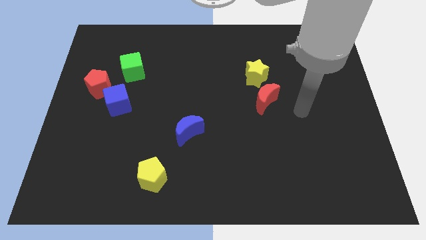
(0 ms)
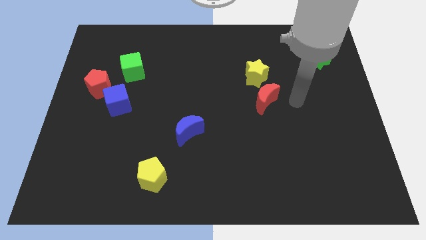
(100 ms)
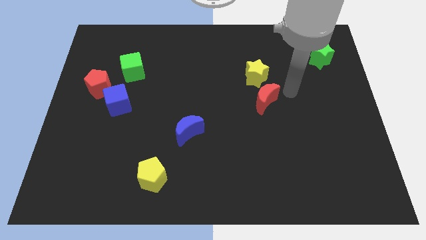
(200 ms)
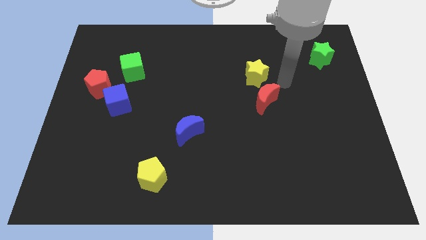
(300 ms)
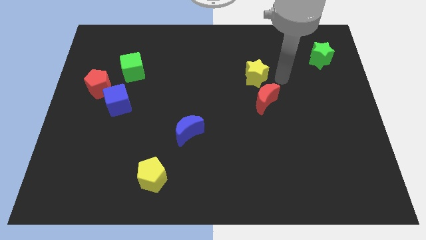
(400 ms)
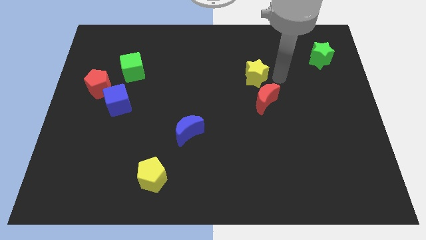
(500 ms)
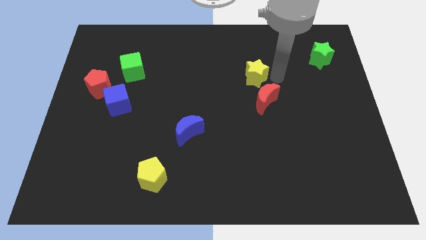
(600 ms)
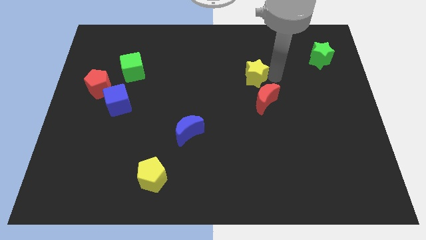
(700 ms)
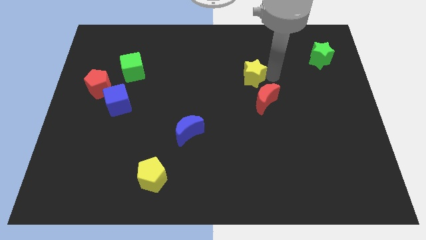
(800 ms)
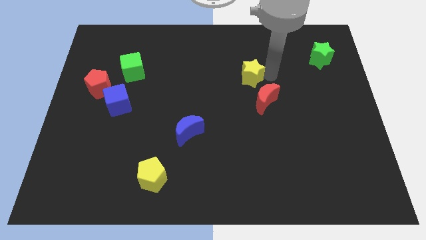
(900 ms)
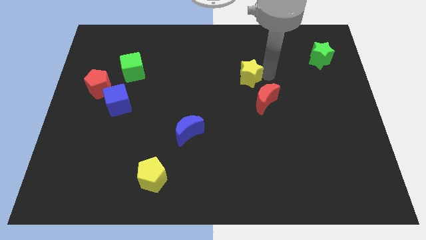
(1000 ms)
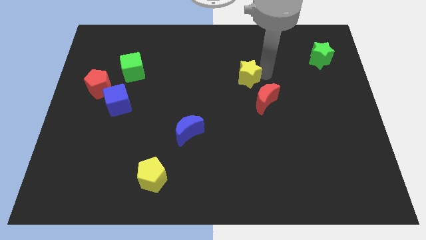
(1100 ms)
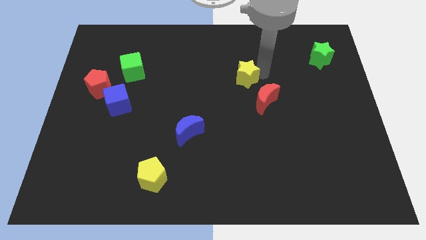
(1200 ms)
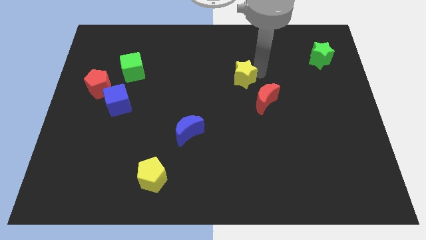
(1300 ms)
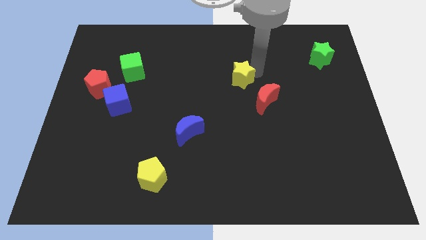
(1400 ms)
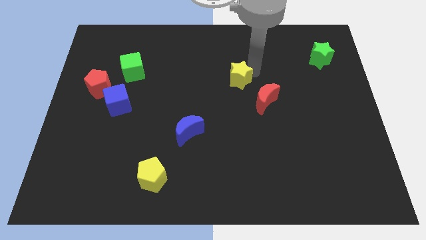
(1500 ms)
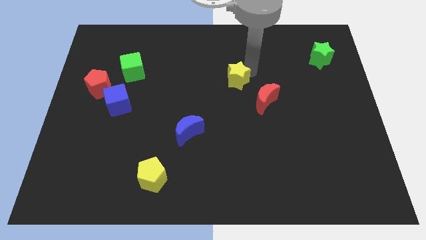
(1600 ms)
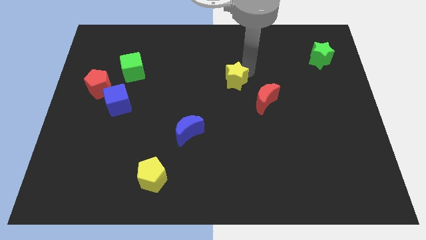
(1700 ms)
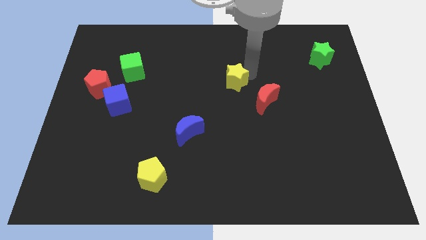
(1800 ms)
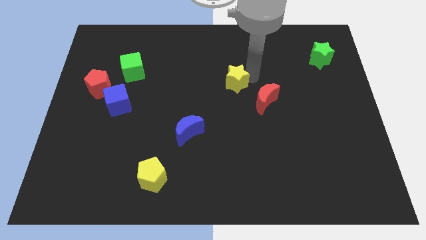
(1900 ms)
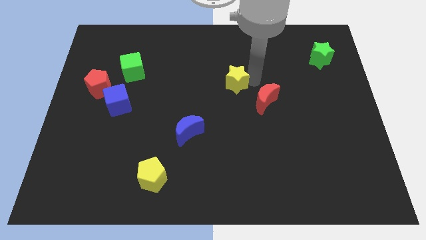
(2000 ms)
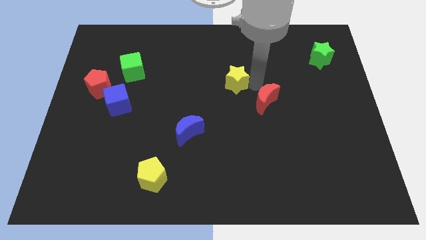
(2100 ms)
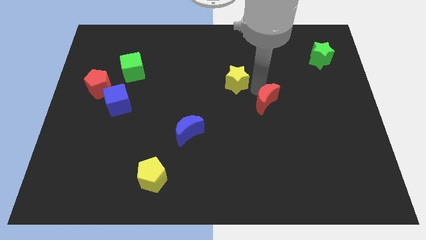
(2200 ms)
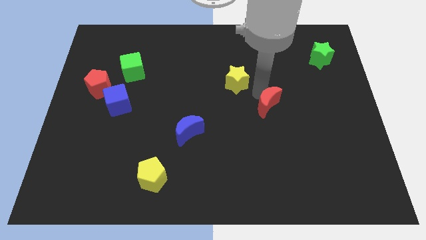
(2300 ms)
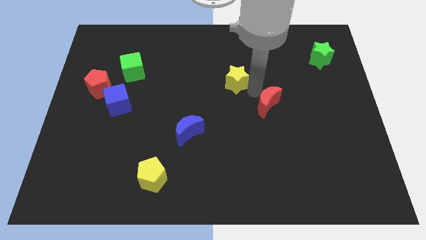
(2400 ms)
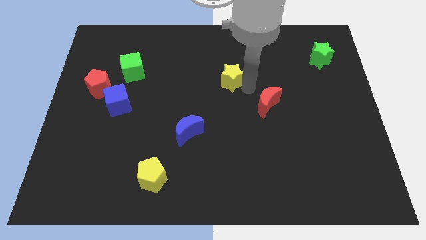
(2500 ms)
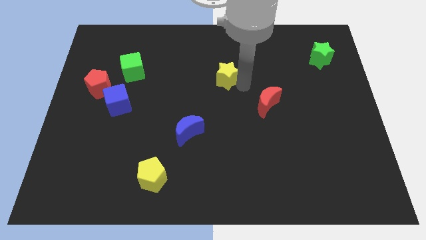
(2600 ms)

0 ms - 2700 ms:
slide the yellow star a little bit to the left

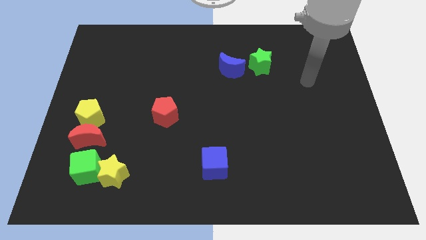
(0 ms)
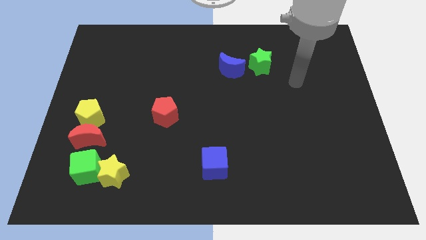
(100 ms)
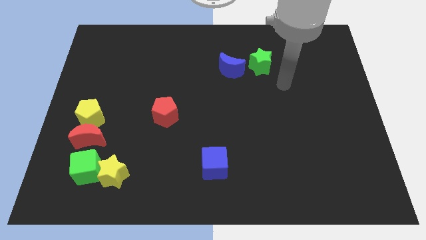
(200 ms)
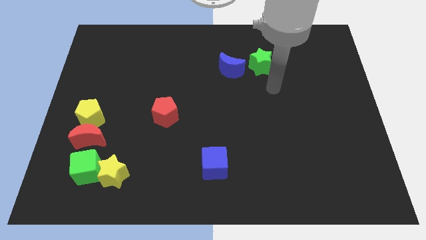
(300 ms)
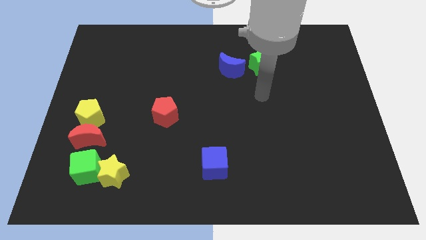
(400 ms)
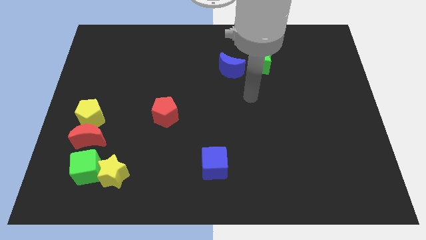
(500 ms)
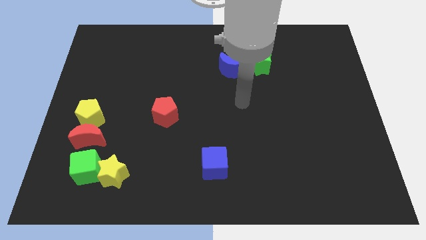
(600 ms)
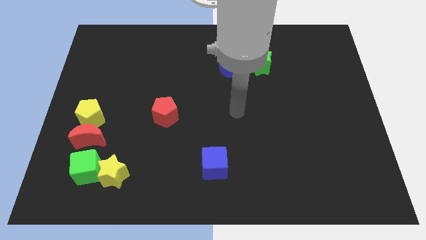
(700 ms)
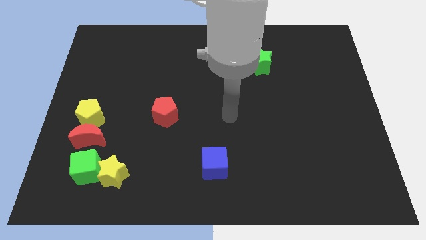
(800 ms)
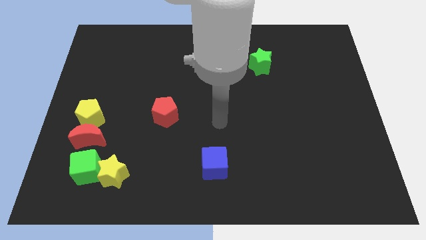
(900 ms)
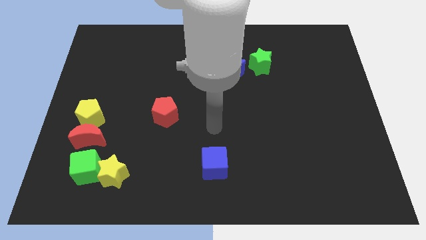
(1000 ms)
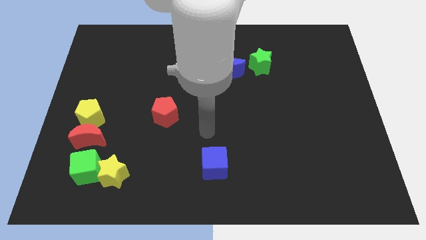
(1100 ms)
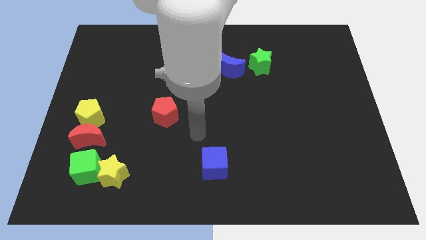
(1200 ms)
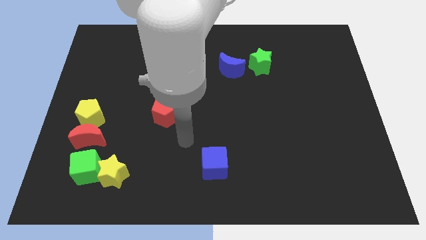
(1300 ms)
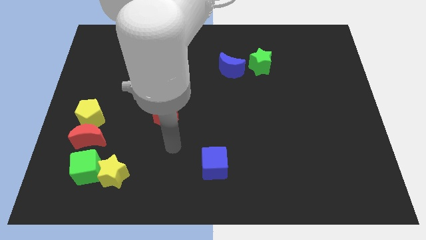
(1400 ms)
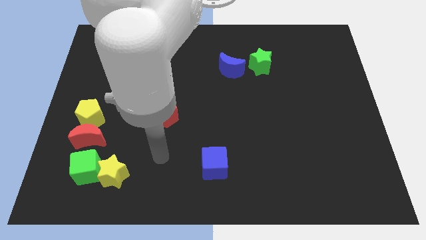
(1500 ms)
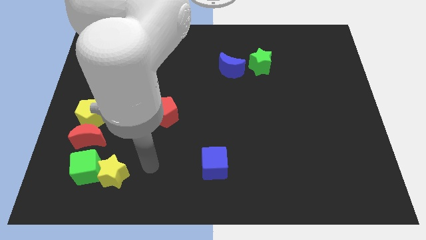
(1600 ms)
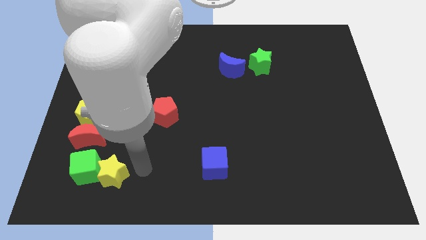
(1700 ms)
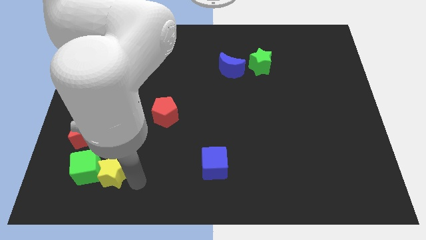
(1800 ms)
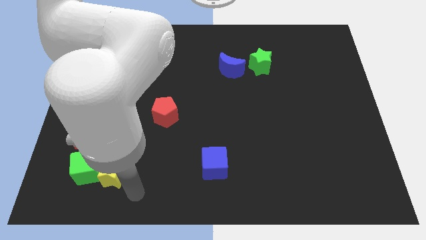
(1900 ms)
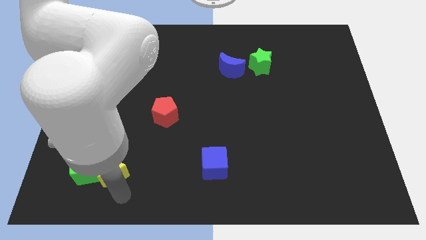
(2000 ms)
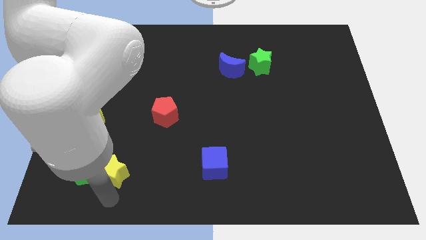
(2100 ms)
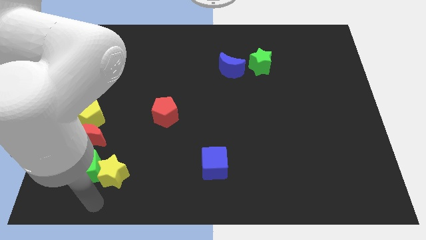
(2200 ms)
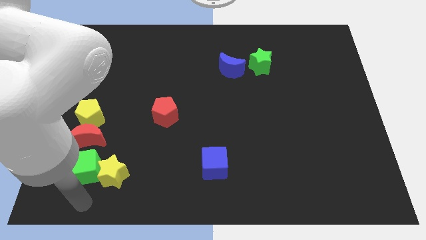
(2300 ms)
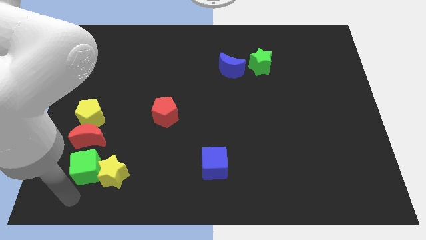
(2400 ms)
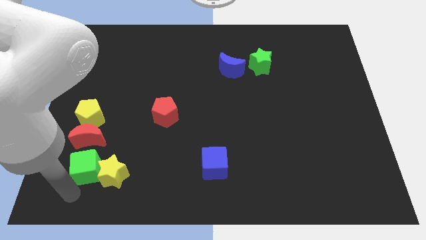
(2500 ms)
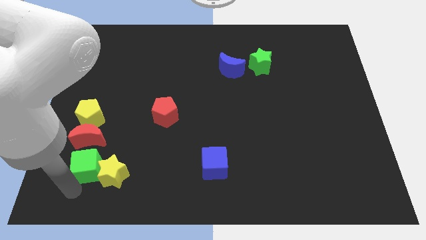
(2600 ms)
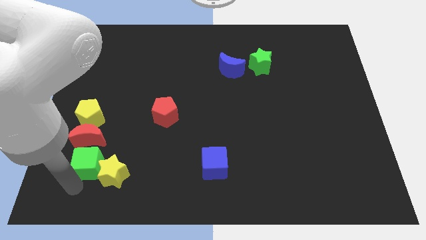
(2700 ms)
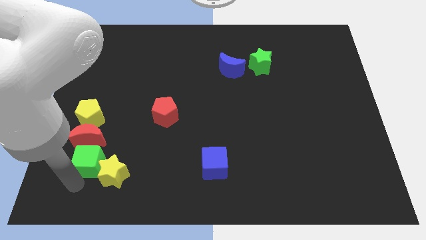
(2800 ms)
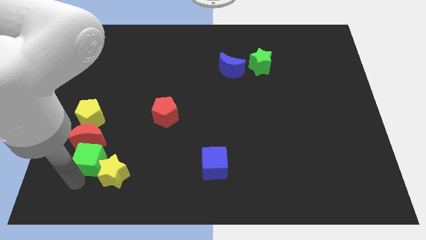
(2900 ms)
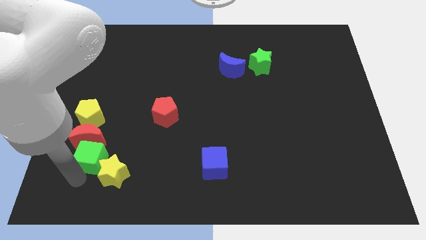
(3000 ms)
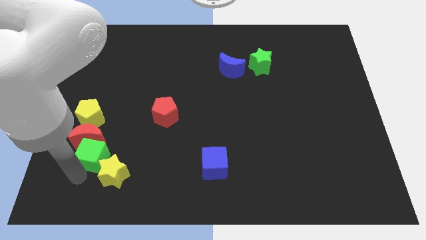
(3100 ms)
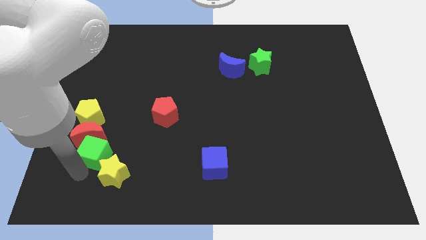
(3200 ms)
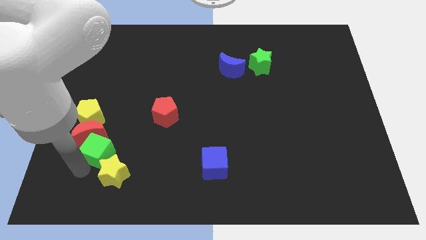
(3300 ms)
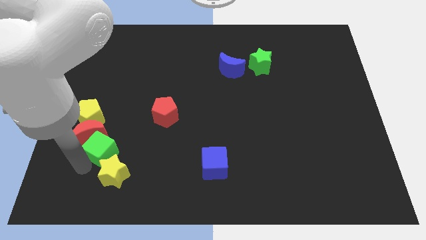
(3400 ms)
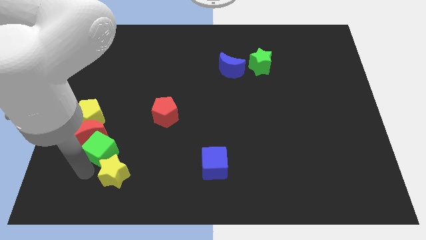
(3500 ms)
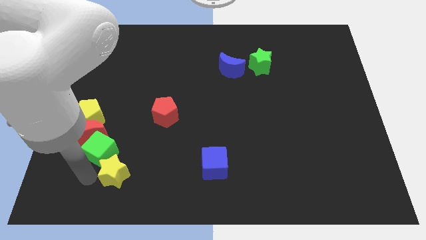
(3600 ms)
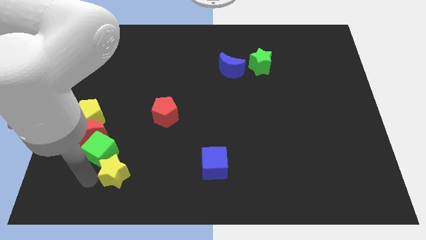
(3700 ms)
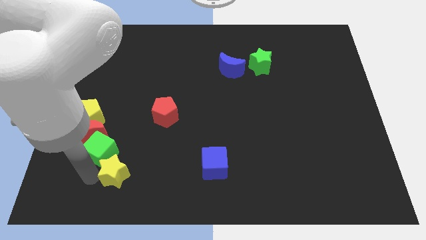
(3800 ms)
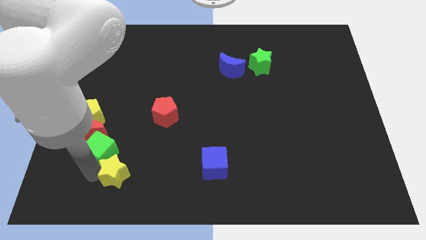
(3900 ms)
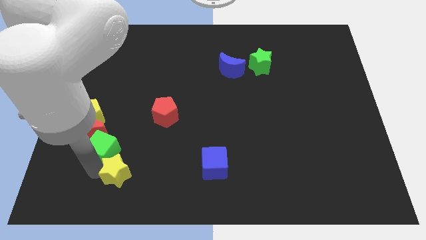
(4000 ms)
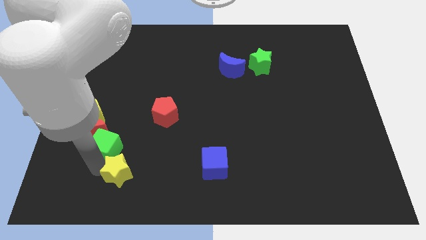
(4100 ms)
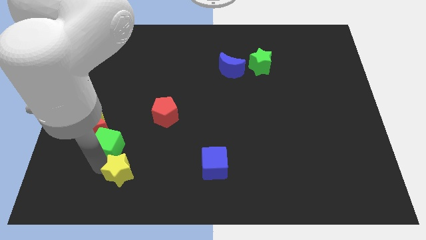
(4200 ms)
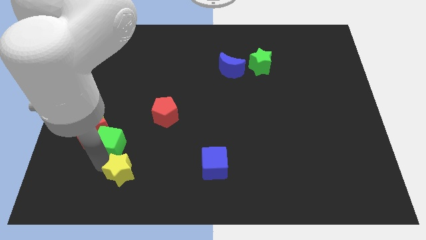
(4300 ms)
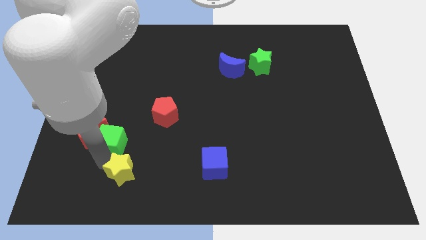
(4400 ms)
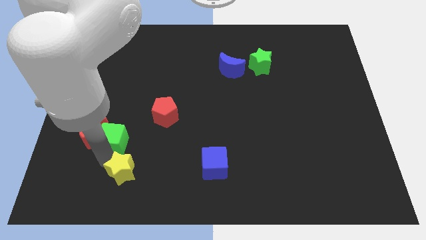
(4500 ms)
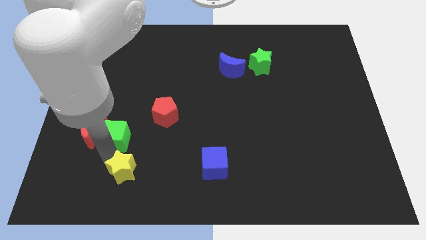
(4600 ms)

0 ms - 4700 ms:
move the green cube a little bit up

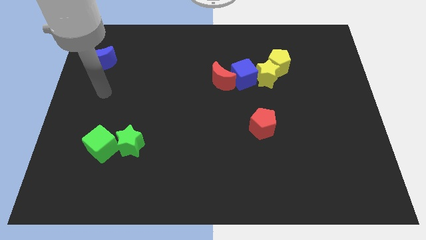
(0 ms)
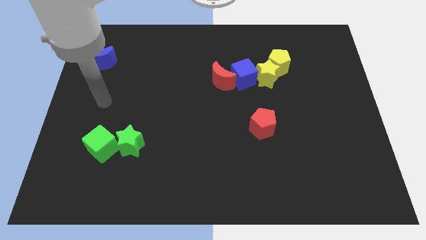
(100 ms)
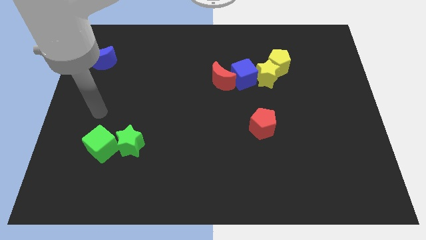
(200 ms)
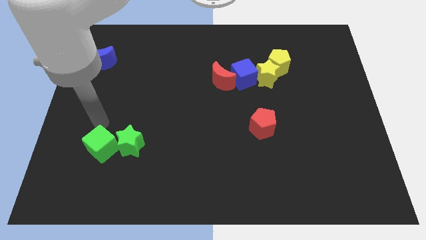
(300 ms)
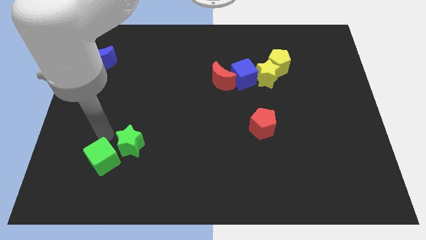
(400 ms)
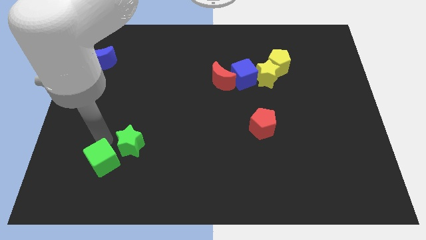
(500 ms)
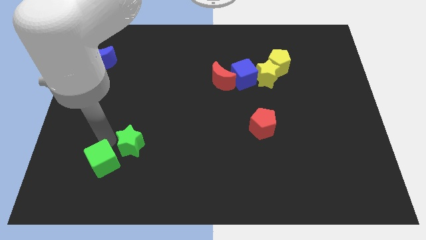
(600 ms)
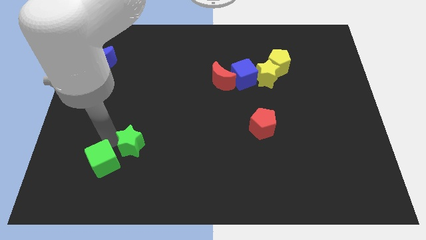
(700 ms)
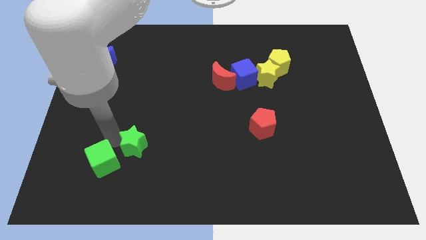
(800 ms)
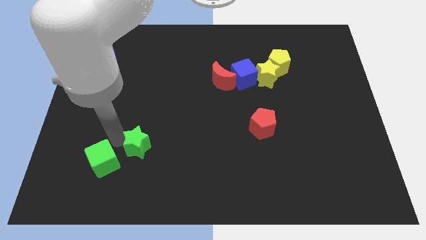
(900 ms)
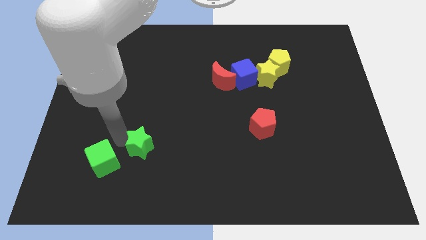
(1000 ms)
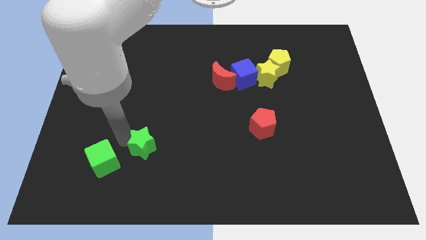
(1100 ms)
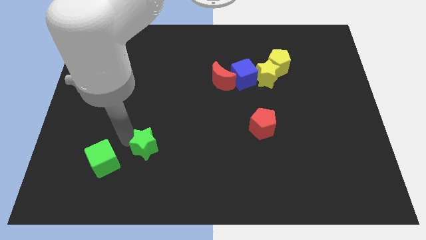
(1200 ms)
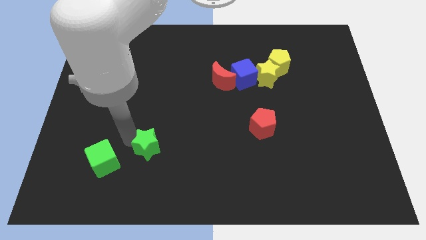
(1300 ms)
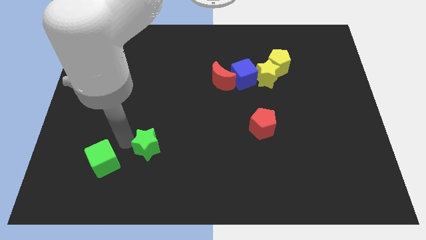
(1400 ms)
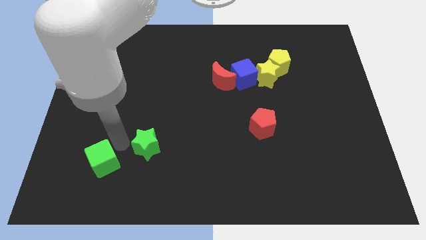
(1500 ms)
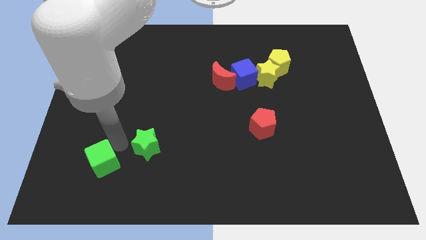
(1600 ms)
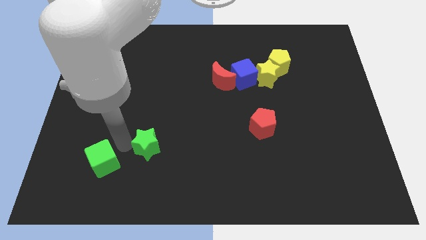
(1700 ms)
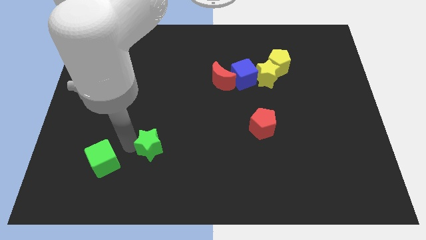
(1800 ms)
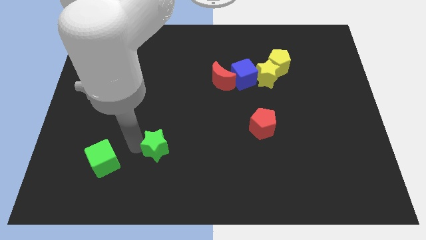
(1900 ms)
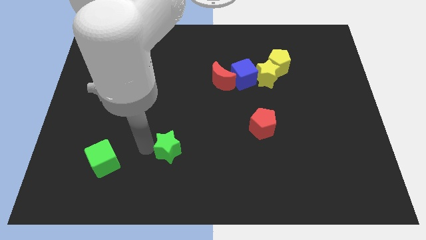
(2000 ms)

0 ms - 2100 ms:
move the green star somewhat to the right
